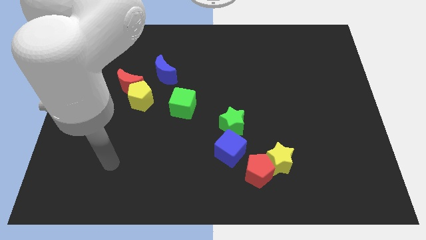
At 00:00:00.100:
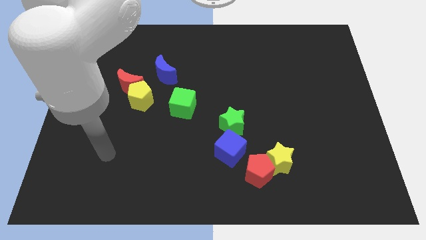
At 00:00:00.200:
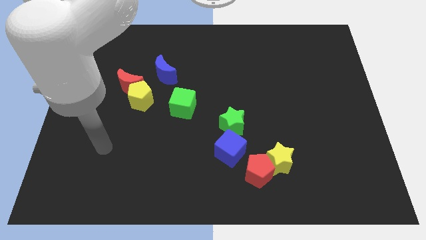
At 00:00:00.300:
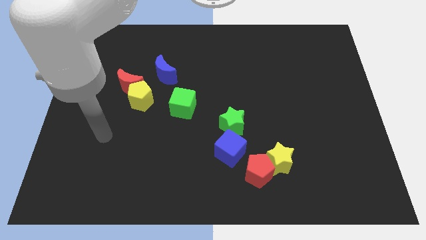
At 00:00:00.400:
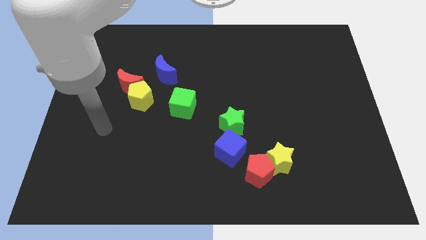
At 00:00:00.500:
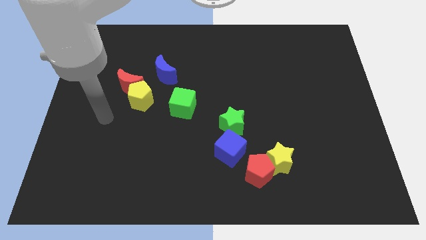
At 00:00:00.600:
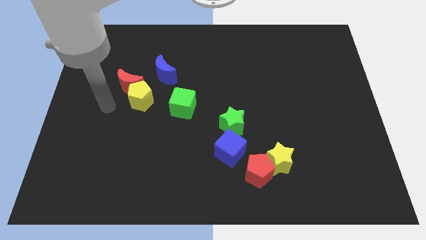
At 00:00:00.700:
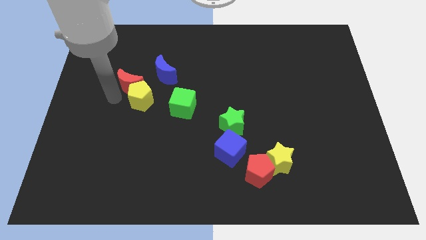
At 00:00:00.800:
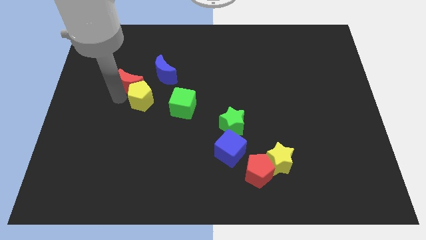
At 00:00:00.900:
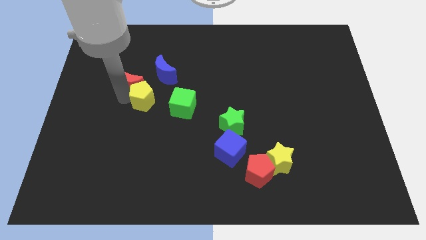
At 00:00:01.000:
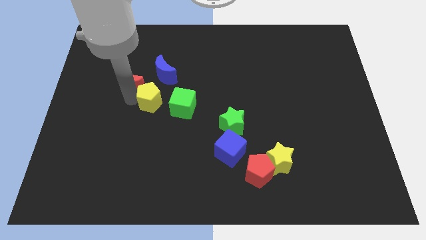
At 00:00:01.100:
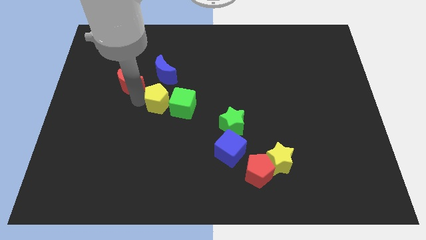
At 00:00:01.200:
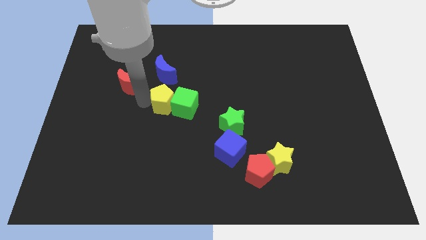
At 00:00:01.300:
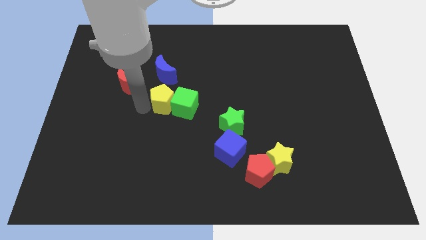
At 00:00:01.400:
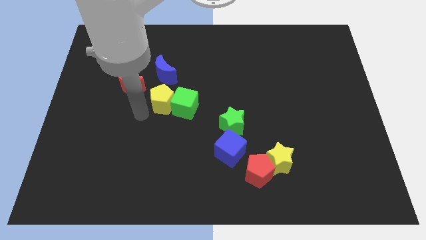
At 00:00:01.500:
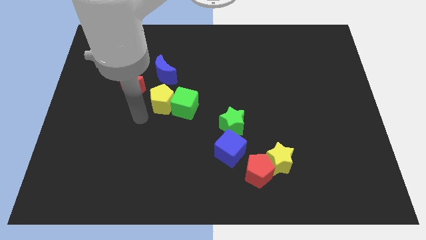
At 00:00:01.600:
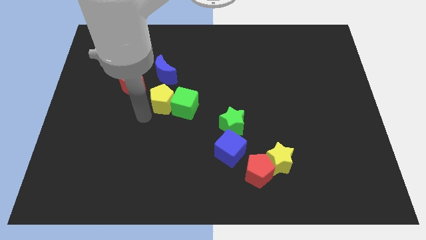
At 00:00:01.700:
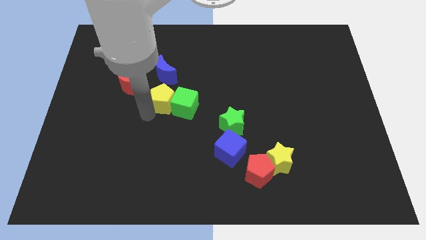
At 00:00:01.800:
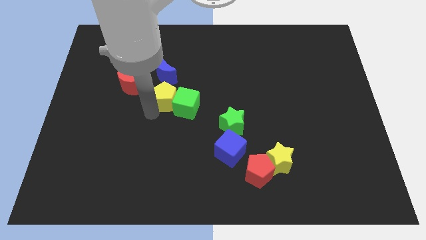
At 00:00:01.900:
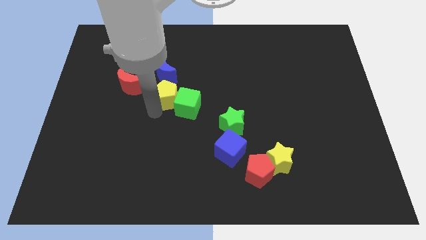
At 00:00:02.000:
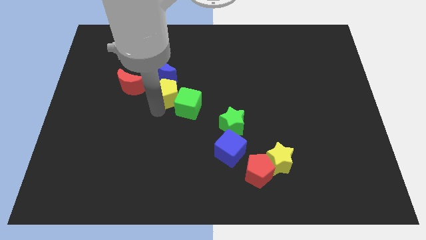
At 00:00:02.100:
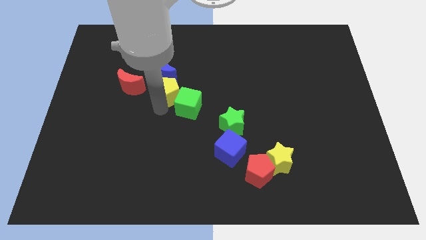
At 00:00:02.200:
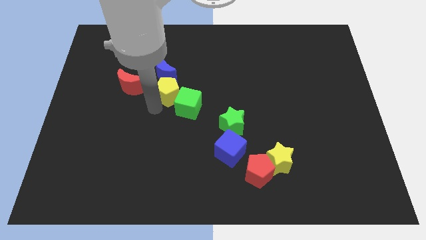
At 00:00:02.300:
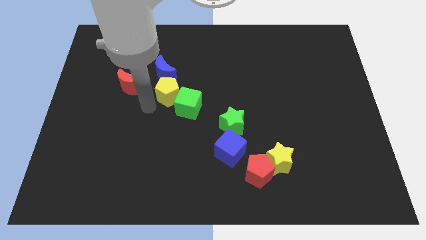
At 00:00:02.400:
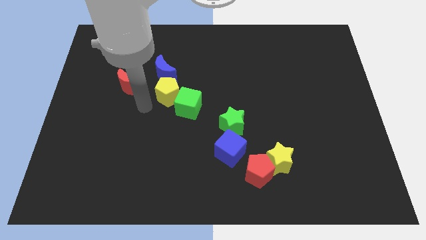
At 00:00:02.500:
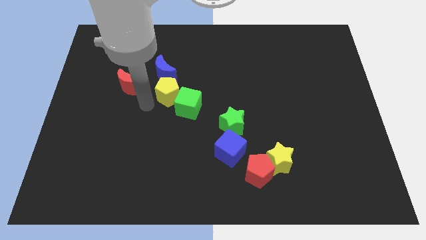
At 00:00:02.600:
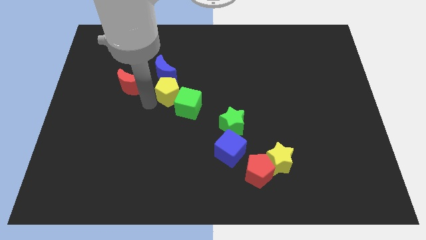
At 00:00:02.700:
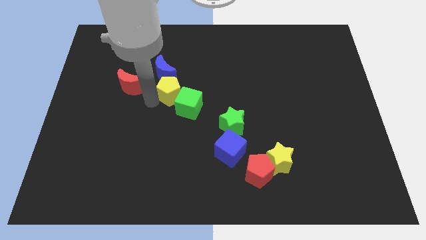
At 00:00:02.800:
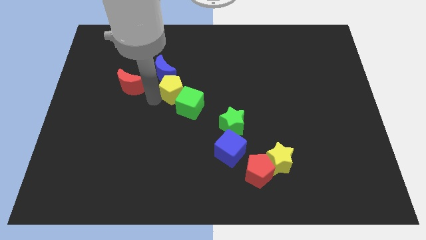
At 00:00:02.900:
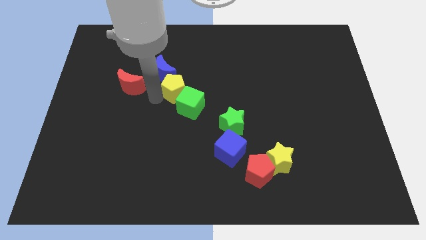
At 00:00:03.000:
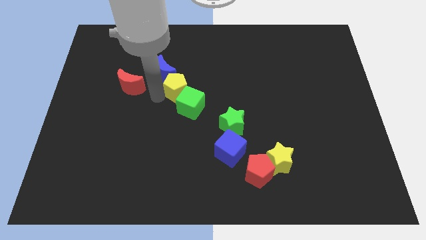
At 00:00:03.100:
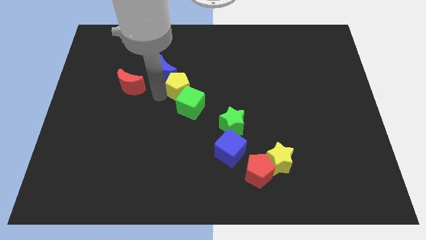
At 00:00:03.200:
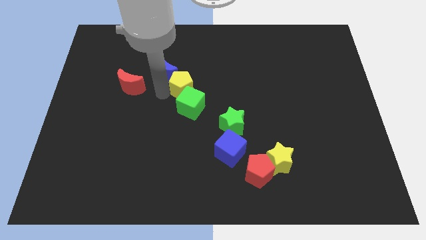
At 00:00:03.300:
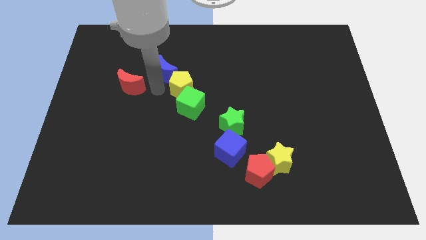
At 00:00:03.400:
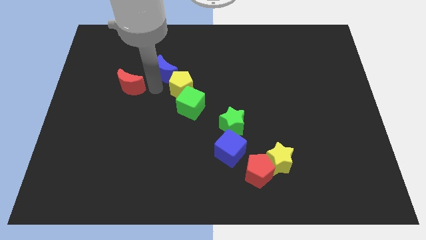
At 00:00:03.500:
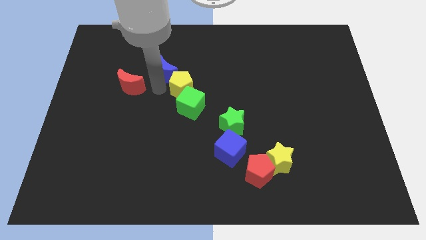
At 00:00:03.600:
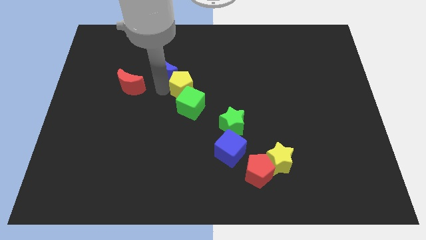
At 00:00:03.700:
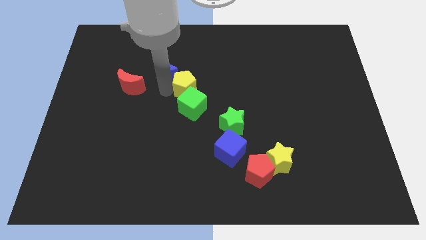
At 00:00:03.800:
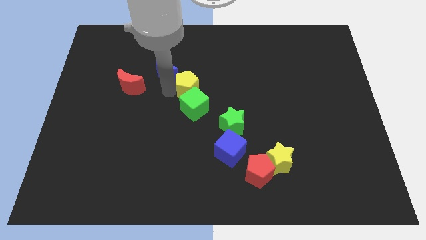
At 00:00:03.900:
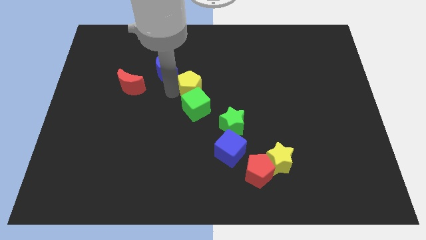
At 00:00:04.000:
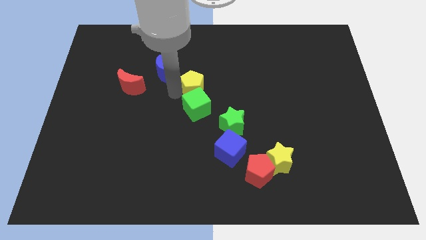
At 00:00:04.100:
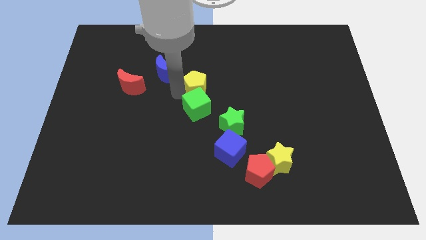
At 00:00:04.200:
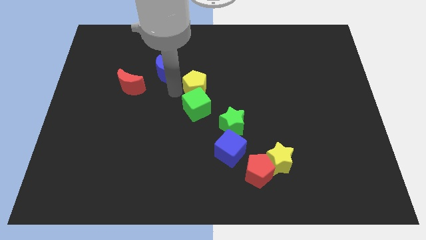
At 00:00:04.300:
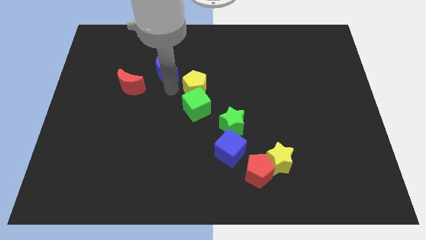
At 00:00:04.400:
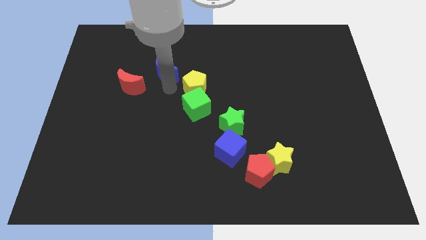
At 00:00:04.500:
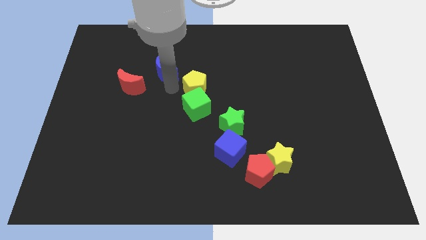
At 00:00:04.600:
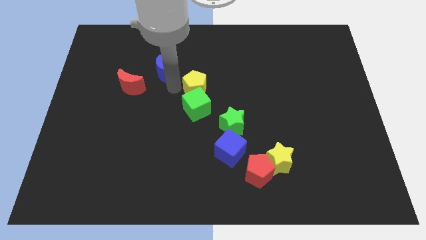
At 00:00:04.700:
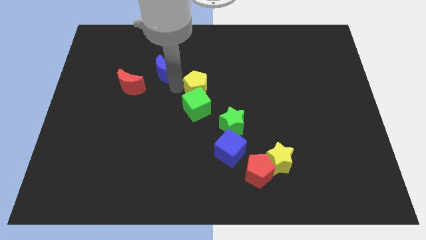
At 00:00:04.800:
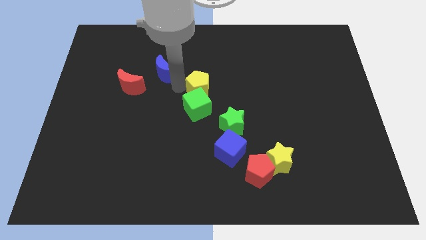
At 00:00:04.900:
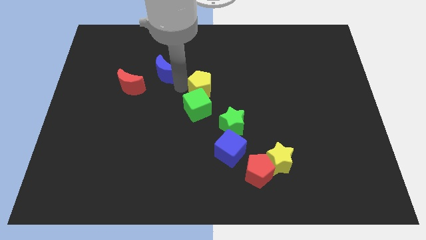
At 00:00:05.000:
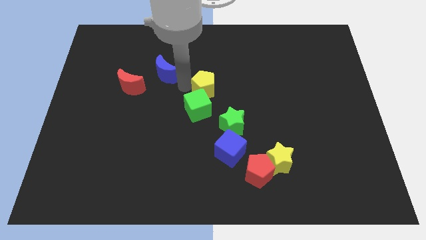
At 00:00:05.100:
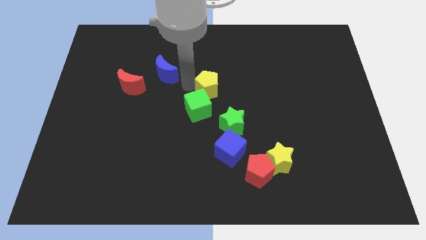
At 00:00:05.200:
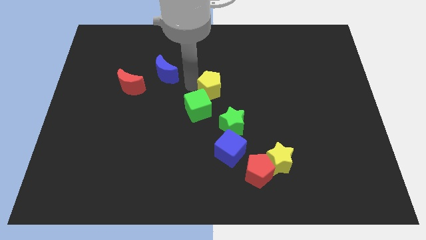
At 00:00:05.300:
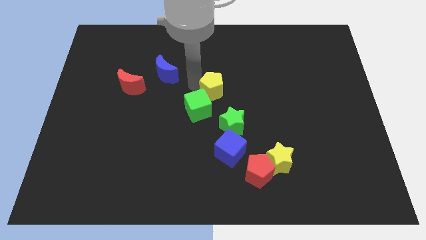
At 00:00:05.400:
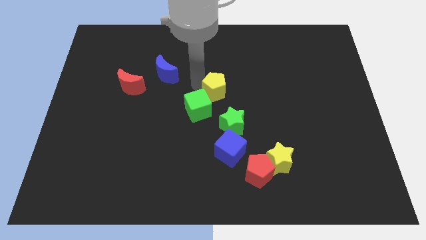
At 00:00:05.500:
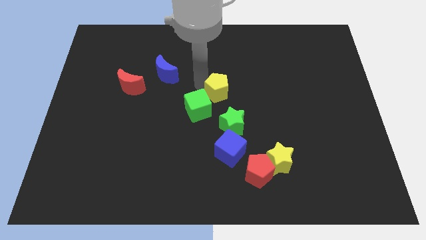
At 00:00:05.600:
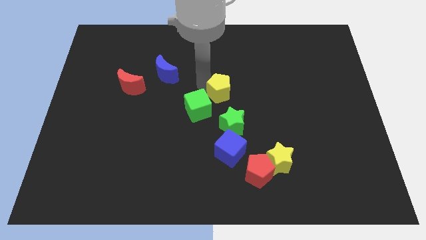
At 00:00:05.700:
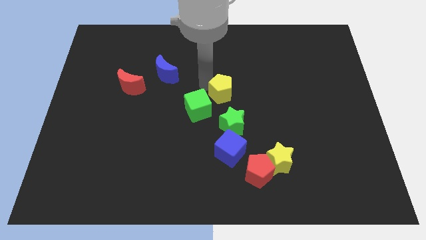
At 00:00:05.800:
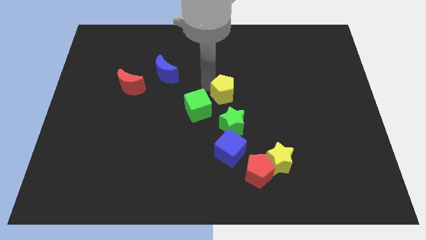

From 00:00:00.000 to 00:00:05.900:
move the yellow pentagon right

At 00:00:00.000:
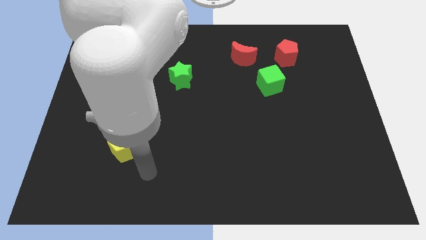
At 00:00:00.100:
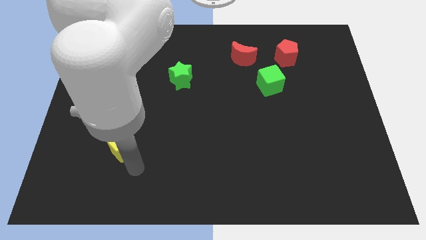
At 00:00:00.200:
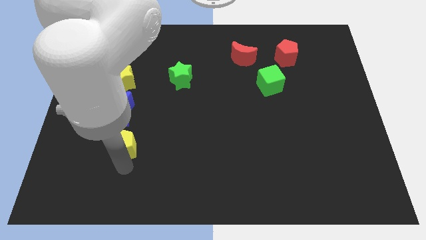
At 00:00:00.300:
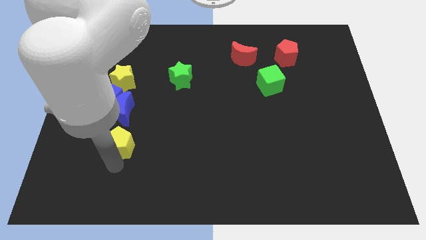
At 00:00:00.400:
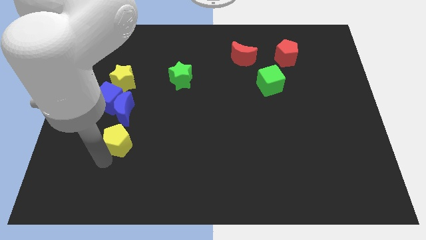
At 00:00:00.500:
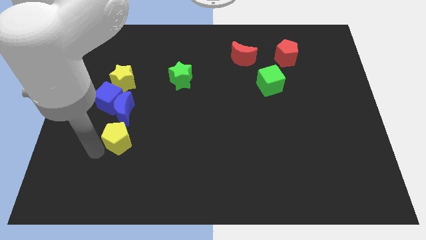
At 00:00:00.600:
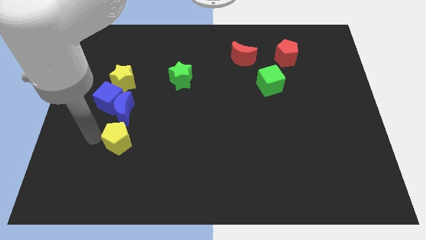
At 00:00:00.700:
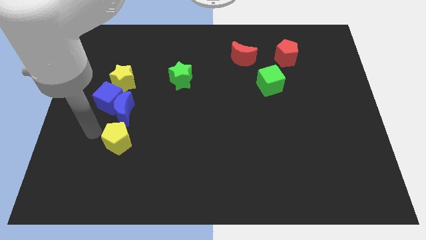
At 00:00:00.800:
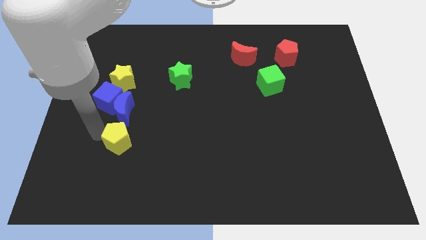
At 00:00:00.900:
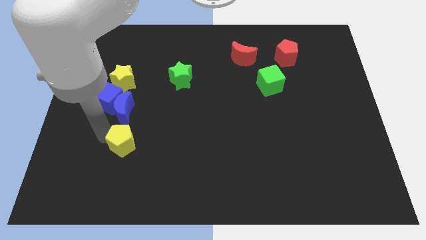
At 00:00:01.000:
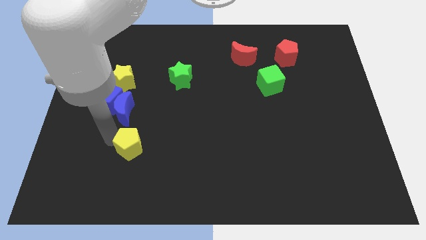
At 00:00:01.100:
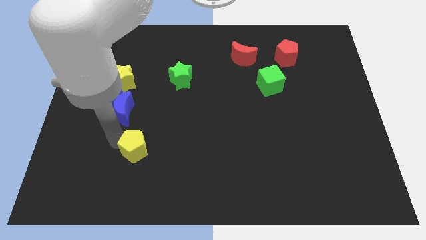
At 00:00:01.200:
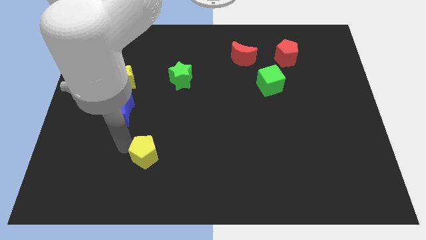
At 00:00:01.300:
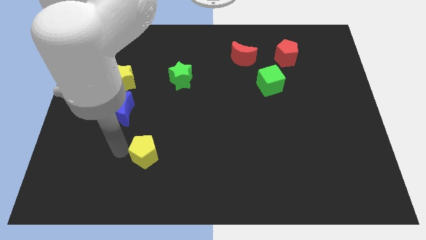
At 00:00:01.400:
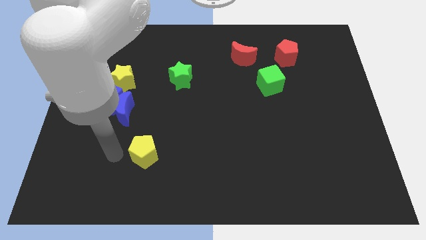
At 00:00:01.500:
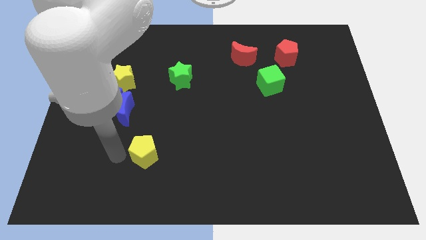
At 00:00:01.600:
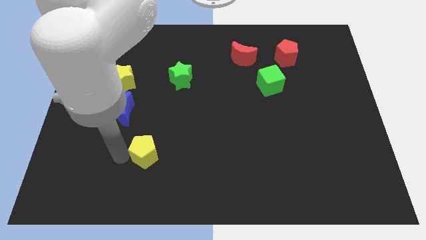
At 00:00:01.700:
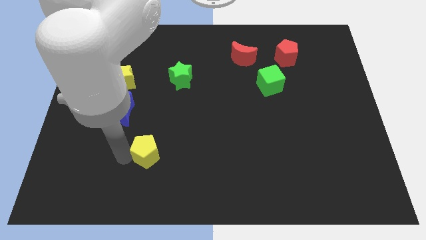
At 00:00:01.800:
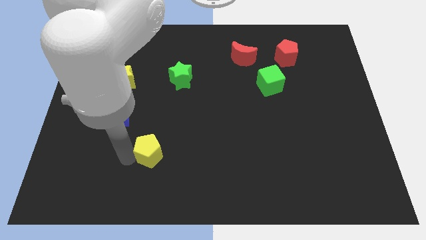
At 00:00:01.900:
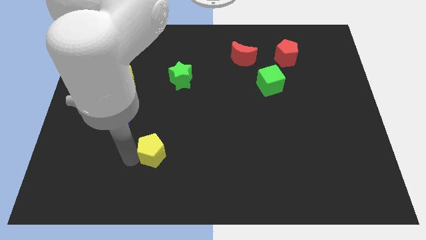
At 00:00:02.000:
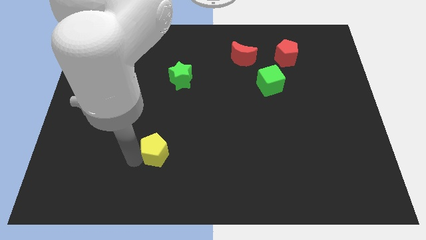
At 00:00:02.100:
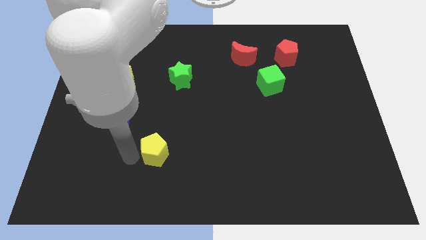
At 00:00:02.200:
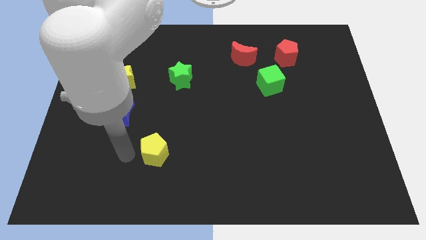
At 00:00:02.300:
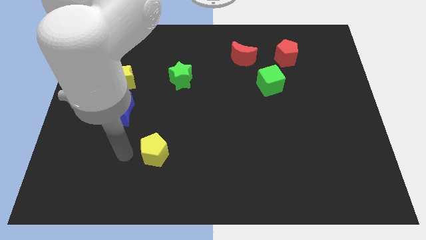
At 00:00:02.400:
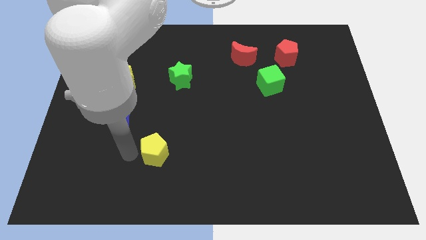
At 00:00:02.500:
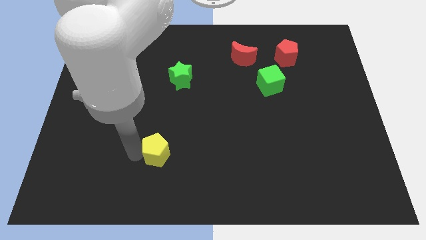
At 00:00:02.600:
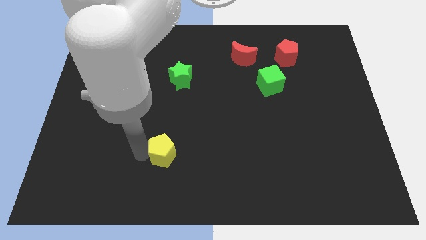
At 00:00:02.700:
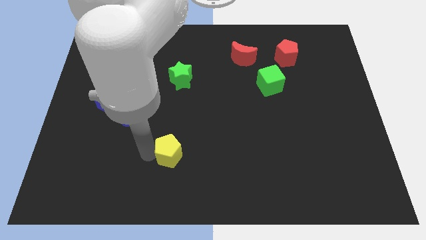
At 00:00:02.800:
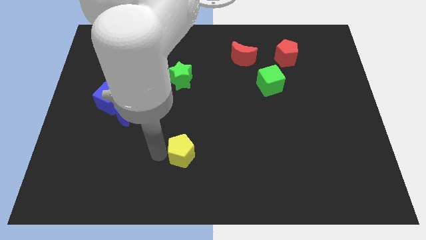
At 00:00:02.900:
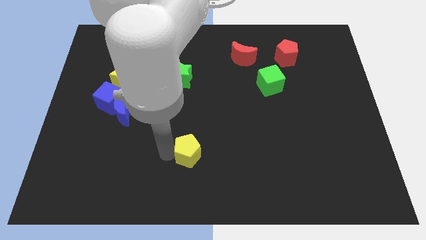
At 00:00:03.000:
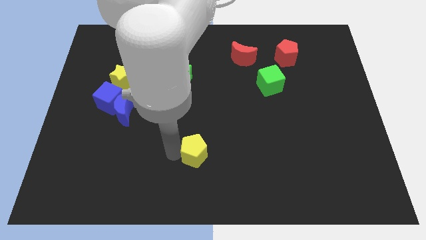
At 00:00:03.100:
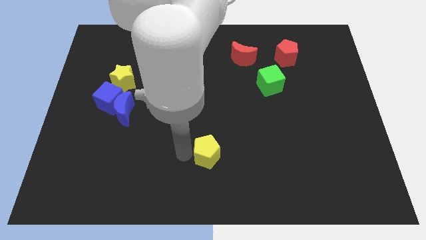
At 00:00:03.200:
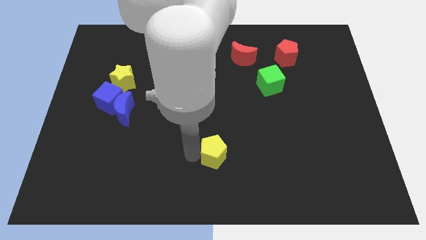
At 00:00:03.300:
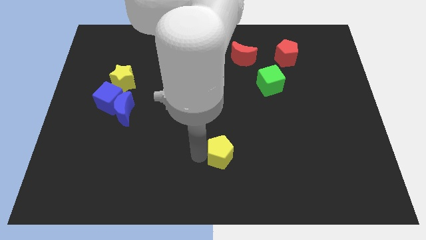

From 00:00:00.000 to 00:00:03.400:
move the yellow pentagon to the right
